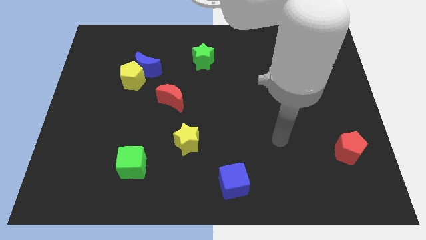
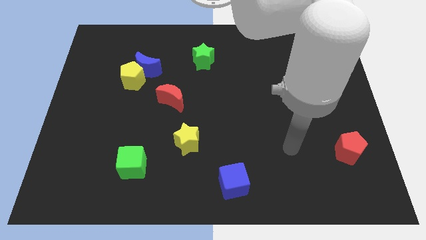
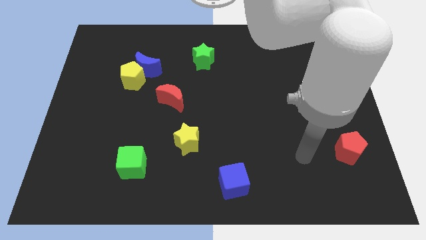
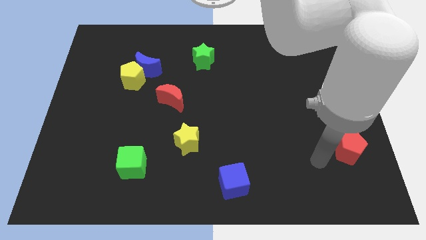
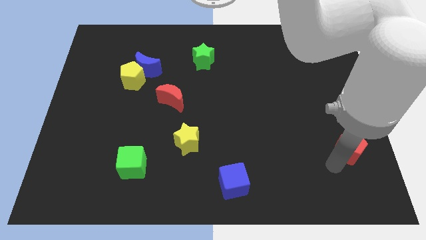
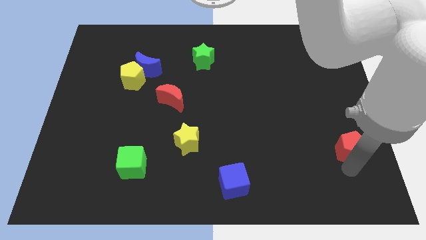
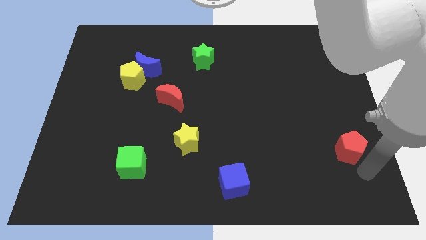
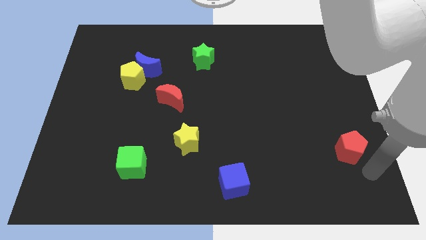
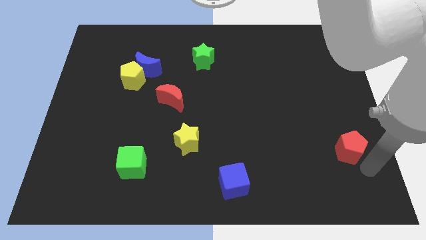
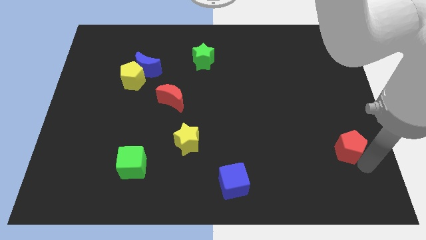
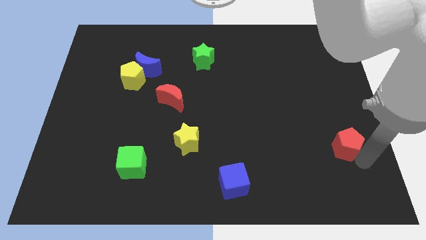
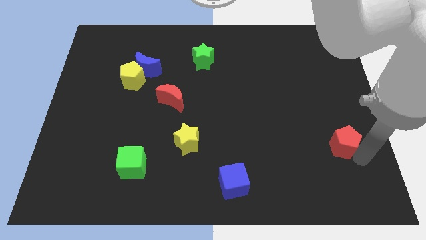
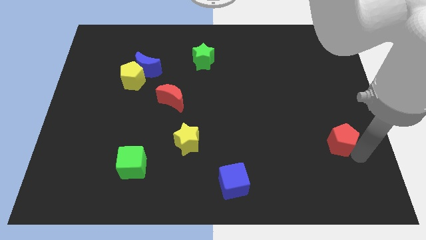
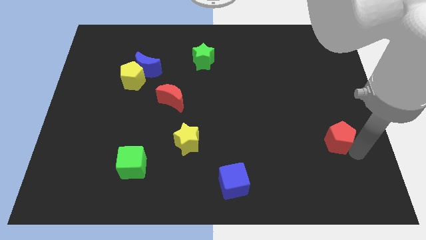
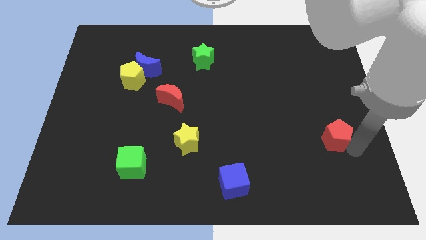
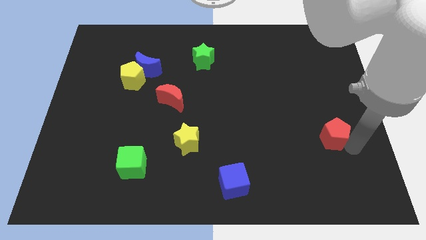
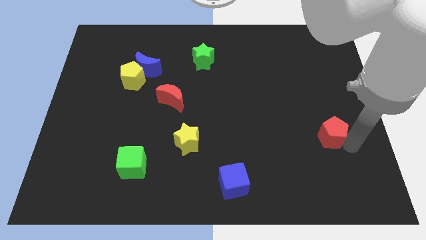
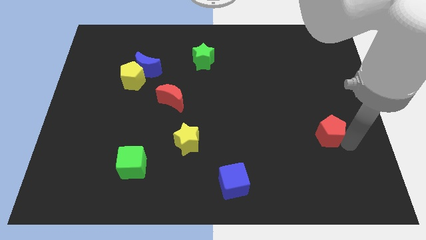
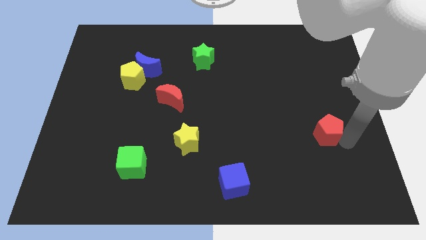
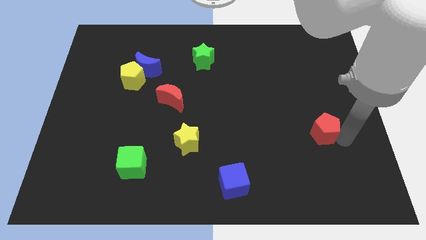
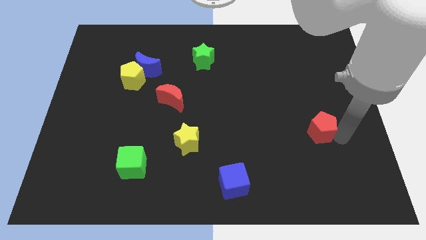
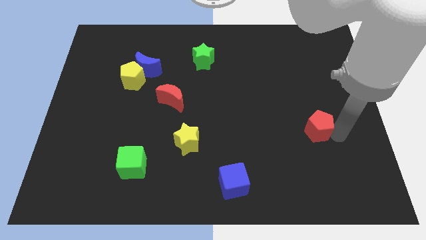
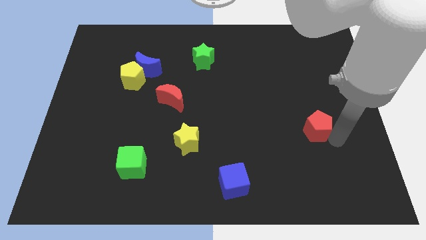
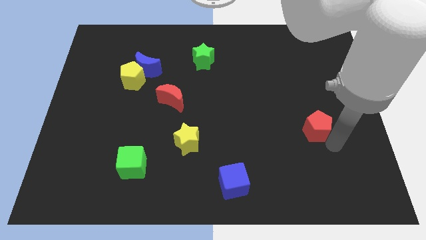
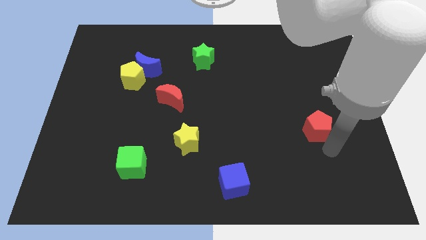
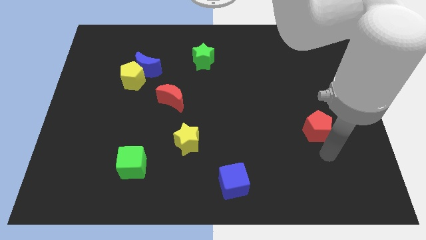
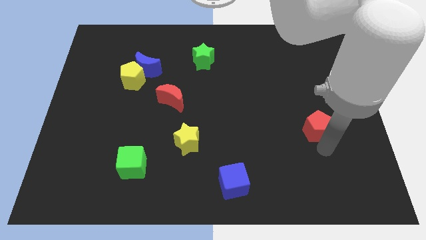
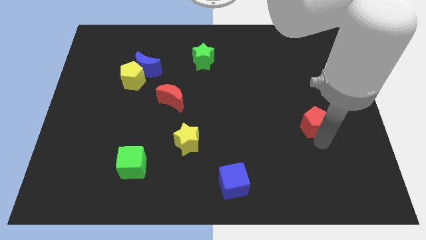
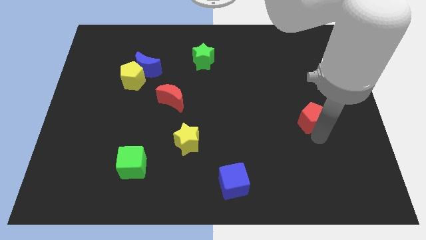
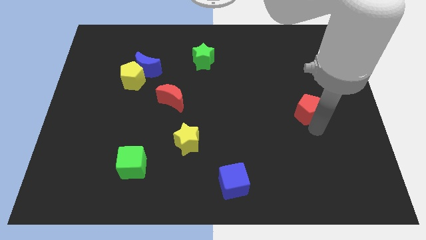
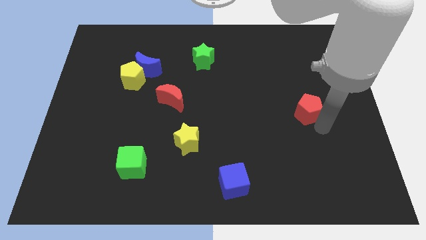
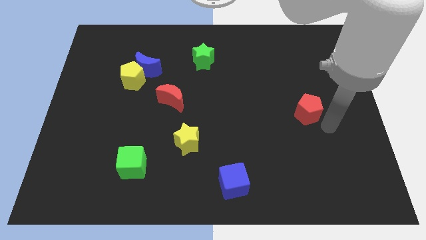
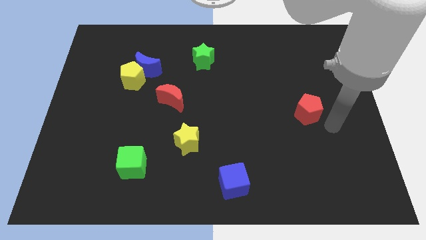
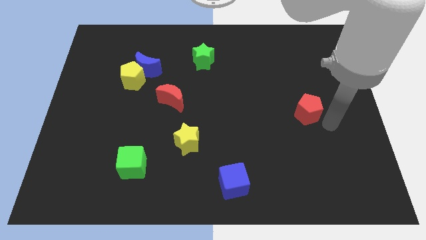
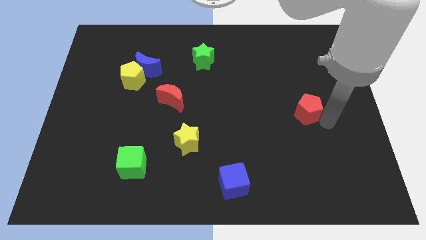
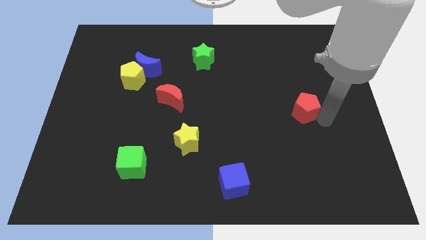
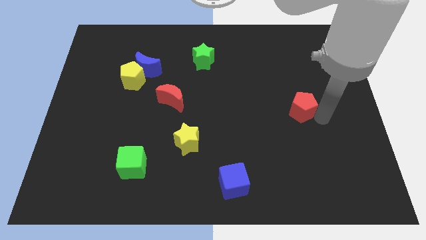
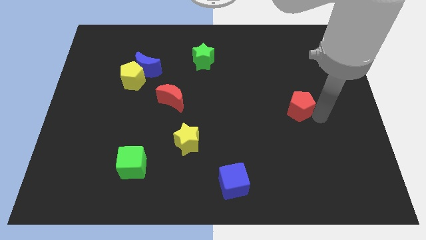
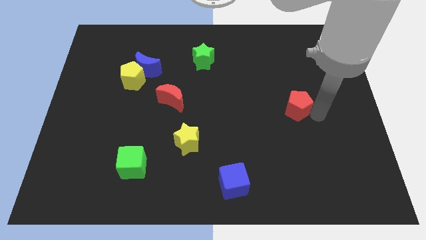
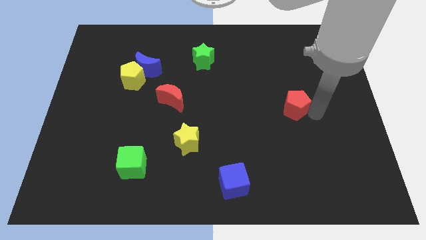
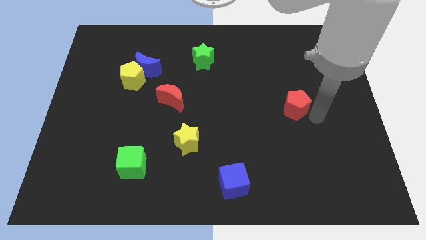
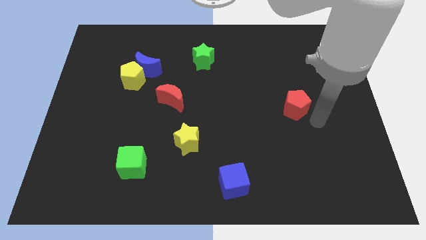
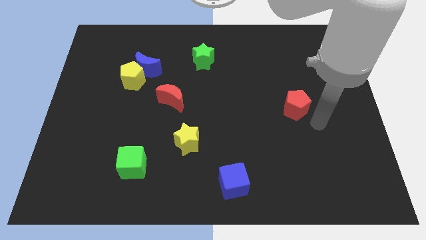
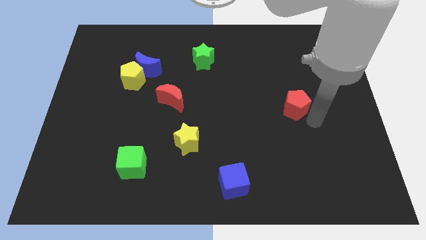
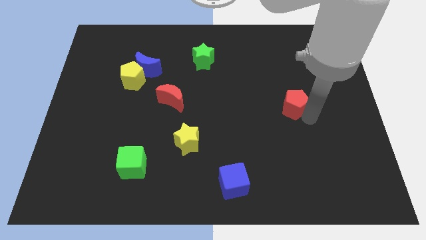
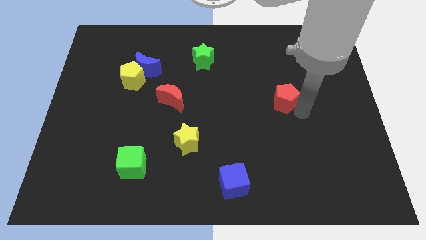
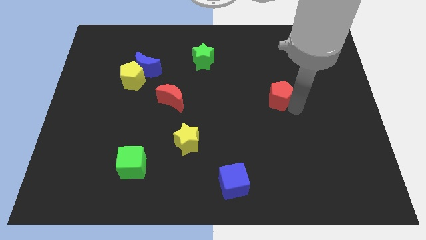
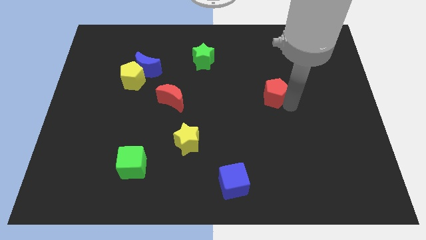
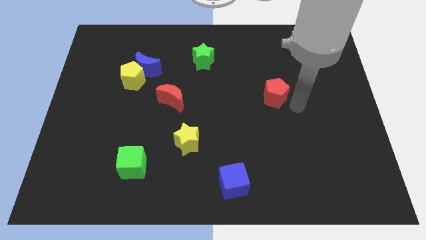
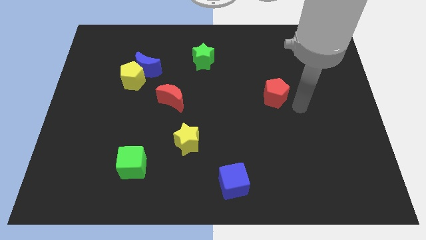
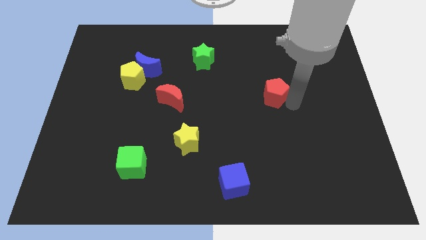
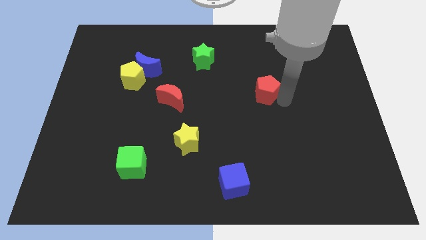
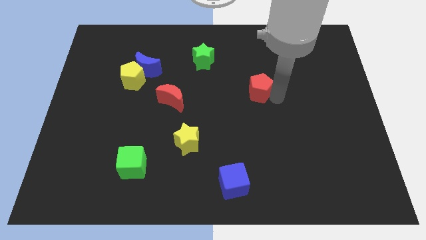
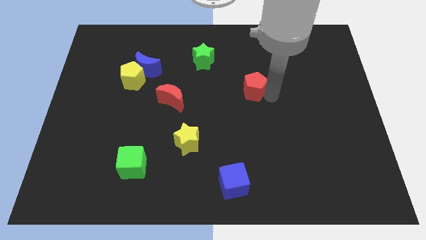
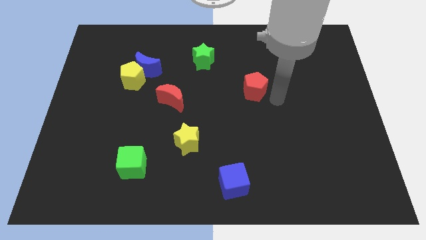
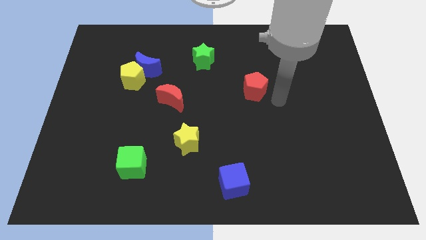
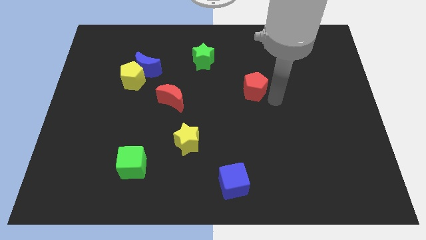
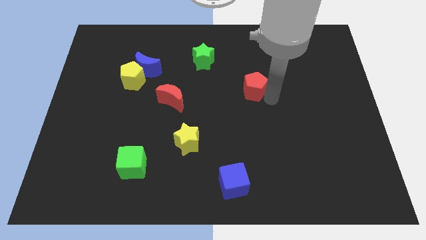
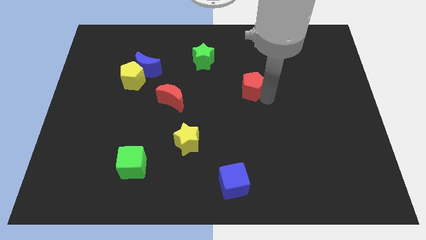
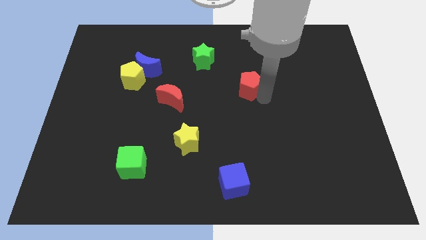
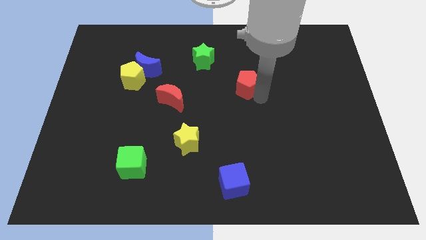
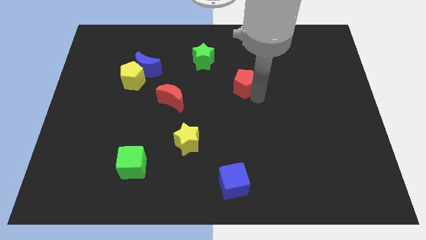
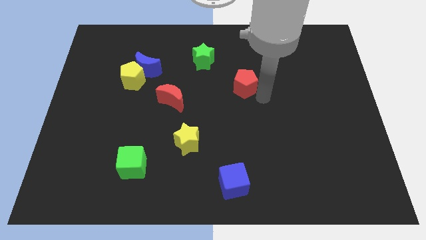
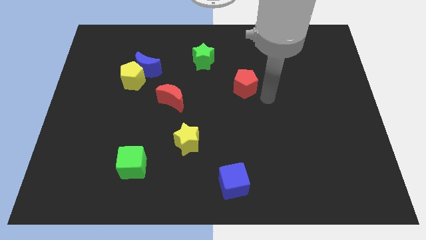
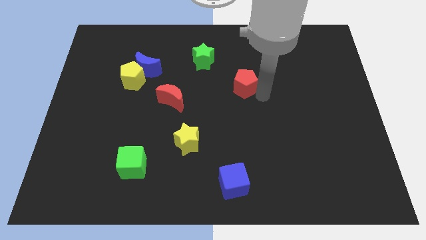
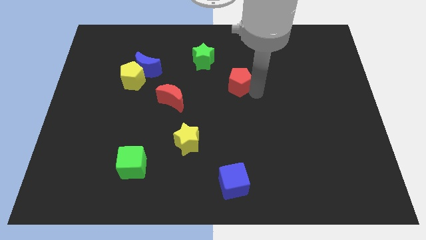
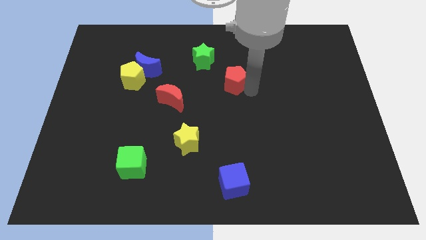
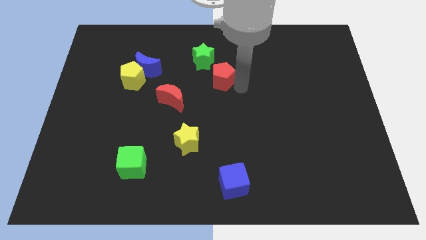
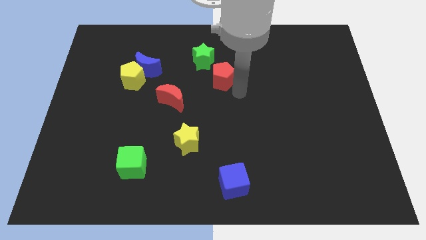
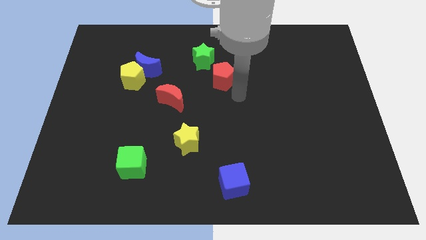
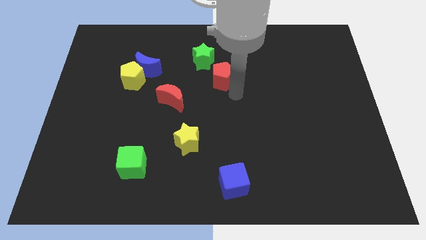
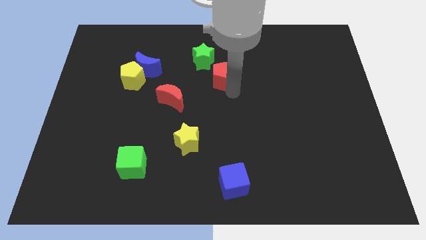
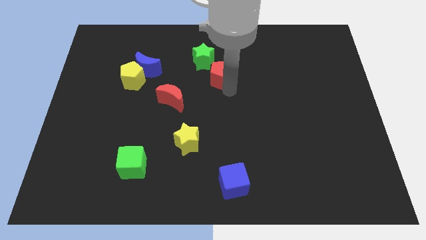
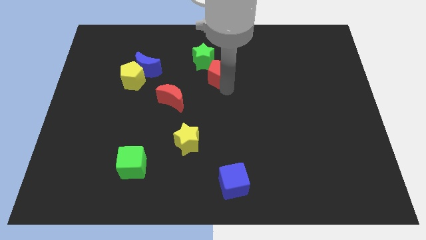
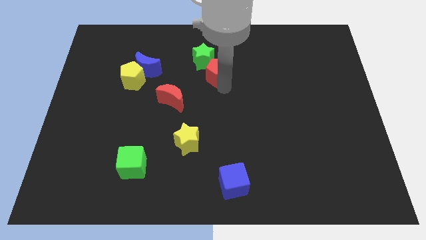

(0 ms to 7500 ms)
put the red pentagon towards the green star
